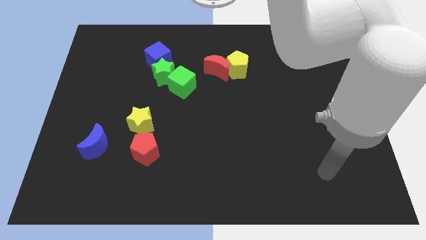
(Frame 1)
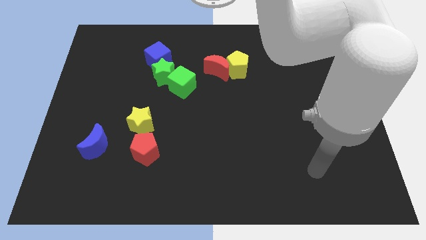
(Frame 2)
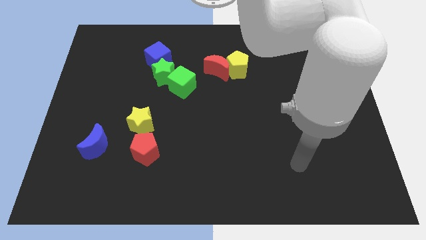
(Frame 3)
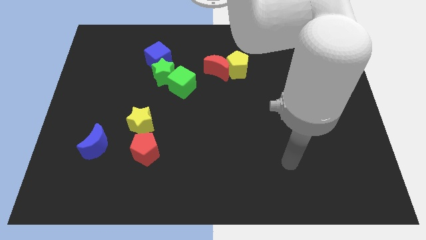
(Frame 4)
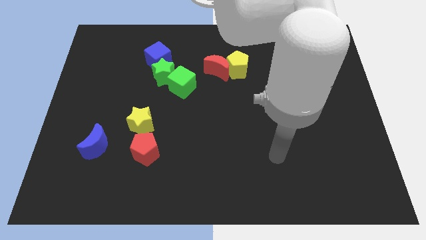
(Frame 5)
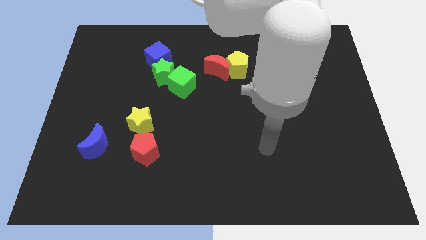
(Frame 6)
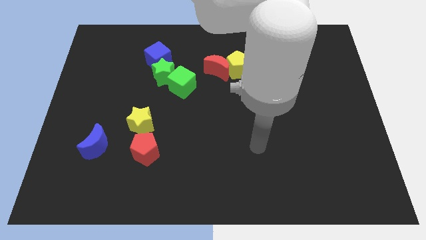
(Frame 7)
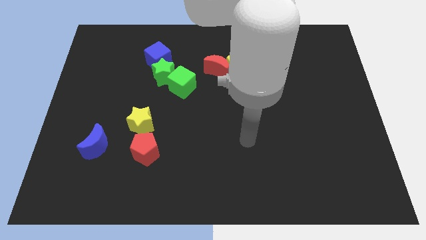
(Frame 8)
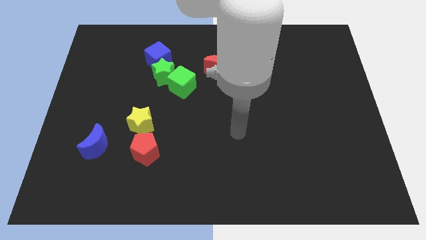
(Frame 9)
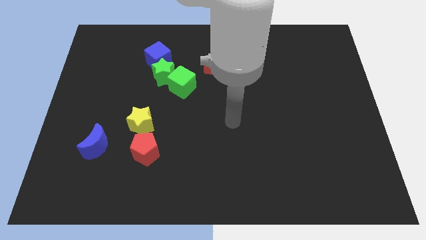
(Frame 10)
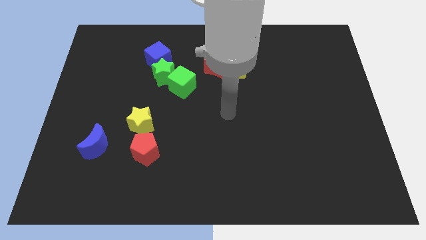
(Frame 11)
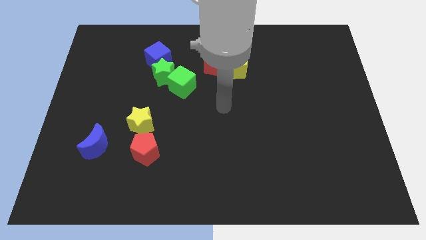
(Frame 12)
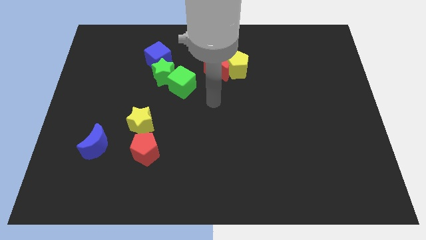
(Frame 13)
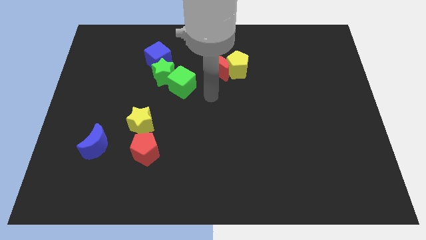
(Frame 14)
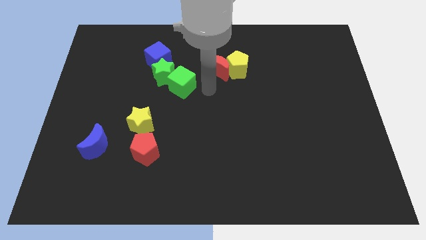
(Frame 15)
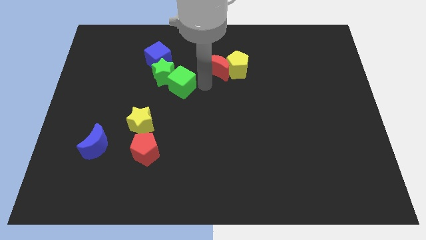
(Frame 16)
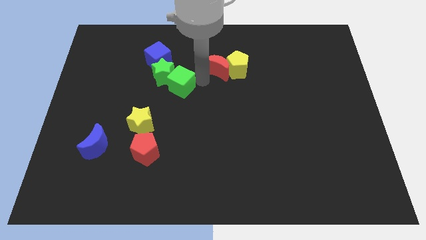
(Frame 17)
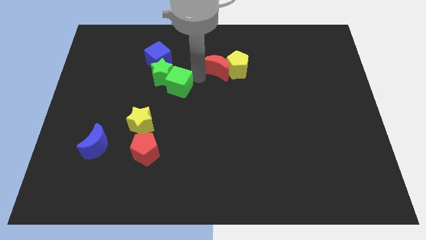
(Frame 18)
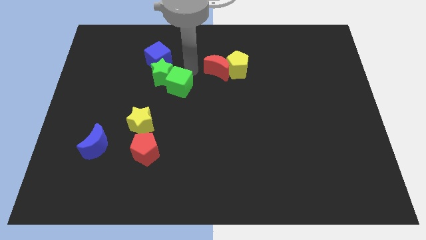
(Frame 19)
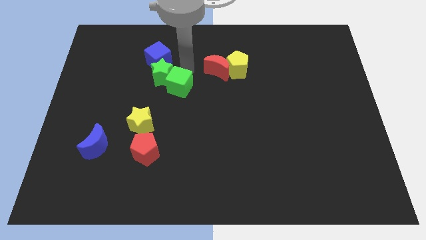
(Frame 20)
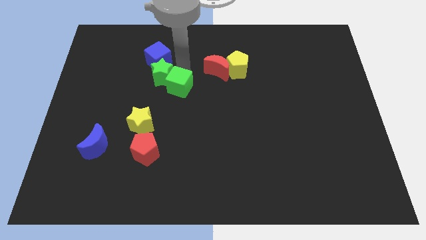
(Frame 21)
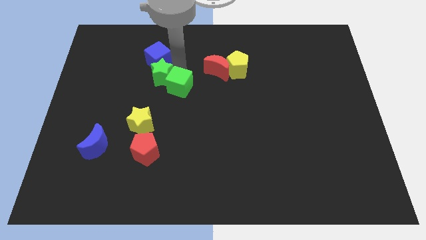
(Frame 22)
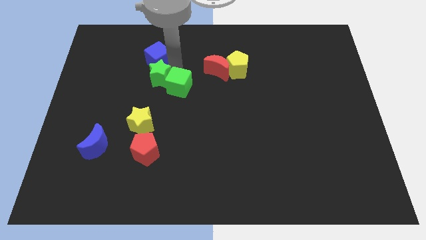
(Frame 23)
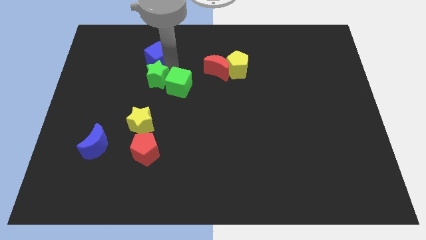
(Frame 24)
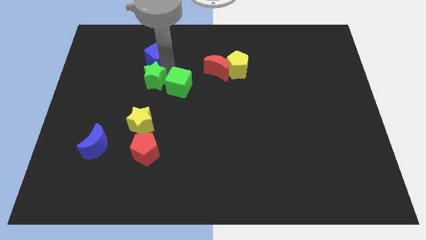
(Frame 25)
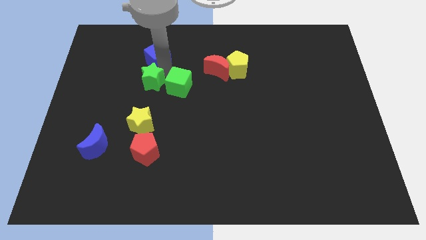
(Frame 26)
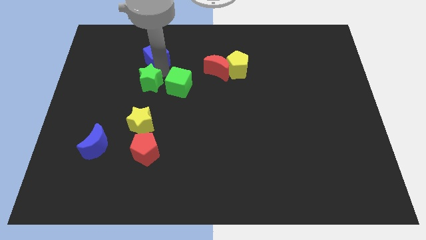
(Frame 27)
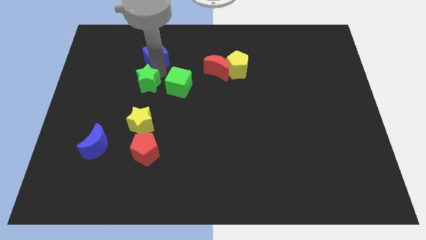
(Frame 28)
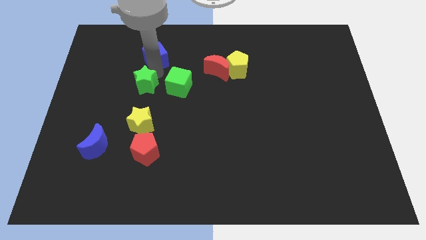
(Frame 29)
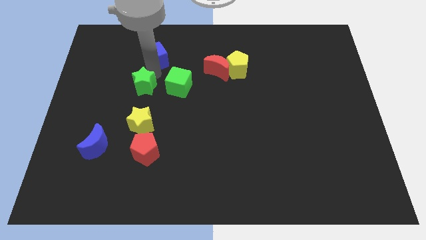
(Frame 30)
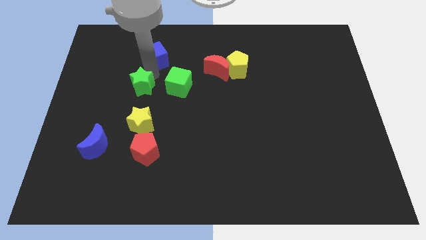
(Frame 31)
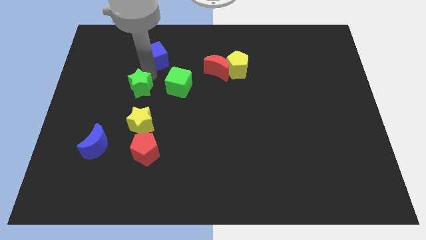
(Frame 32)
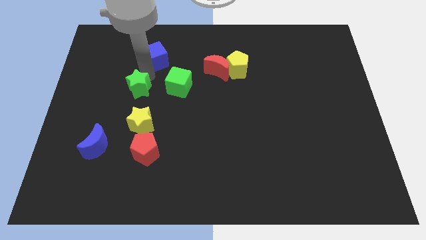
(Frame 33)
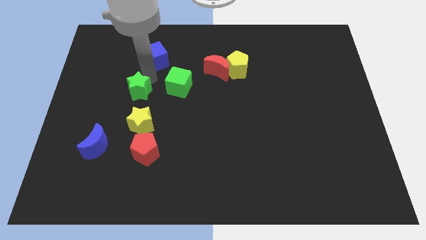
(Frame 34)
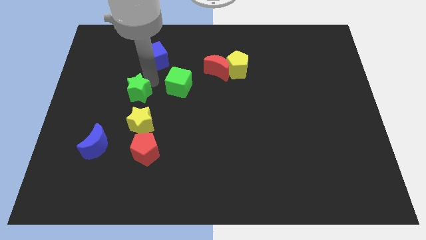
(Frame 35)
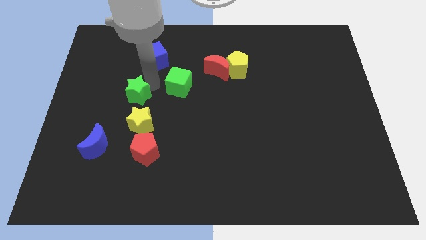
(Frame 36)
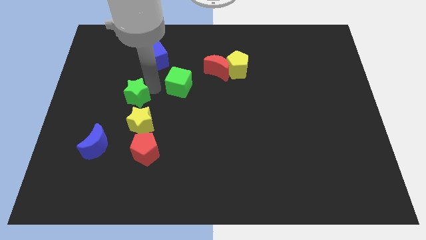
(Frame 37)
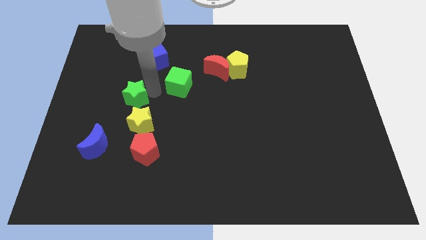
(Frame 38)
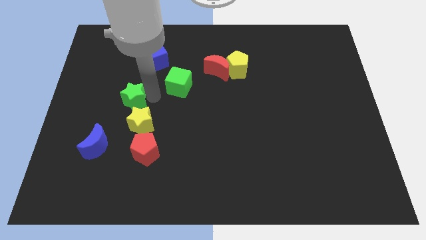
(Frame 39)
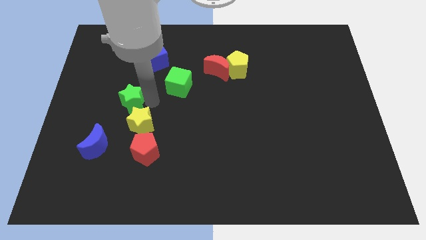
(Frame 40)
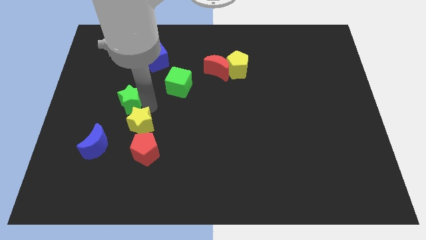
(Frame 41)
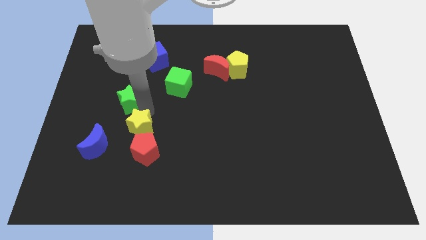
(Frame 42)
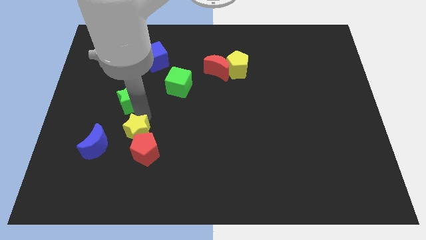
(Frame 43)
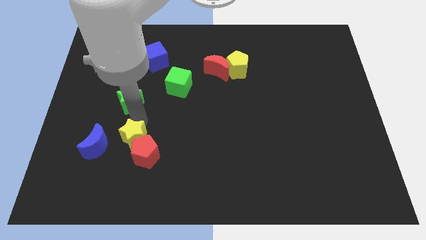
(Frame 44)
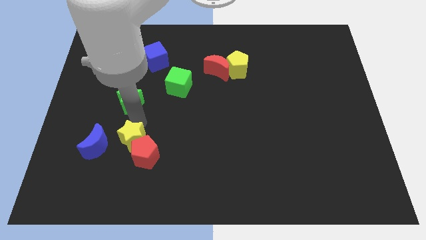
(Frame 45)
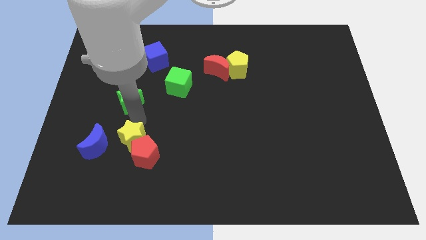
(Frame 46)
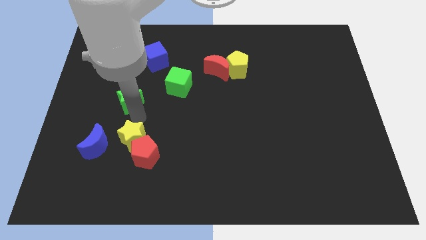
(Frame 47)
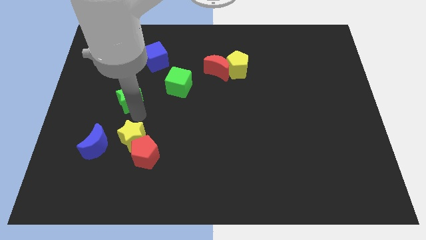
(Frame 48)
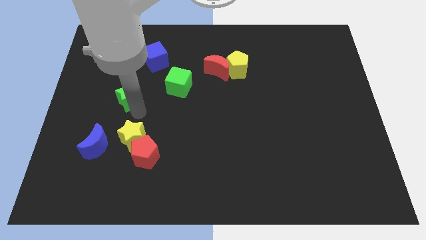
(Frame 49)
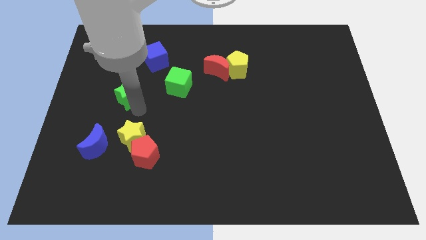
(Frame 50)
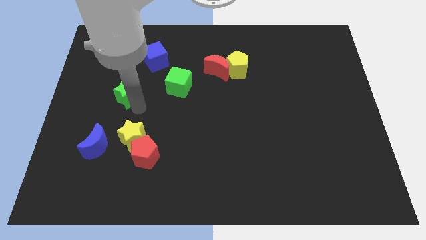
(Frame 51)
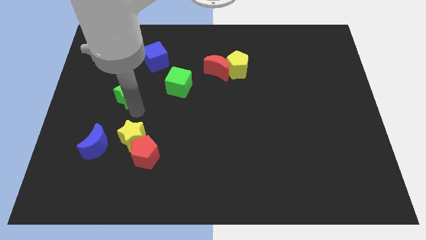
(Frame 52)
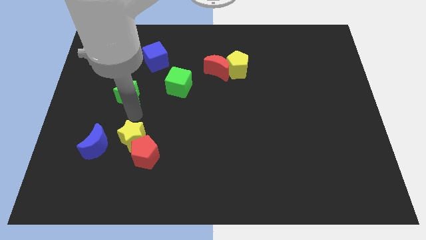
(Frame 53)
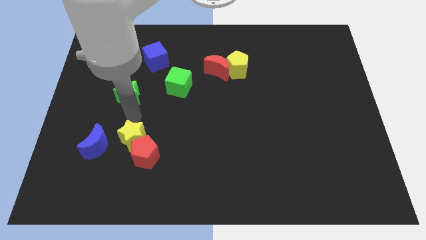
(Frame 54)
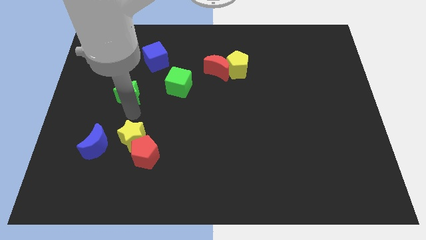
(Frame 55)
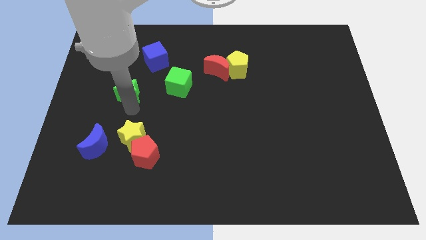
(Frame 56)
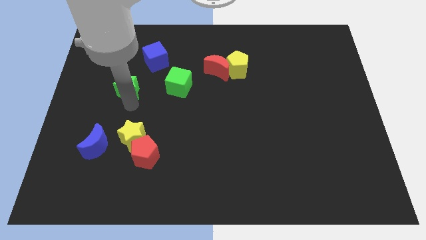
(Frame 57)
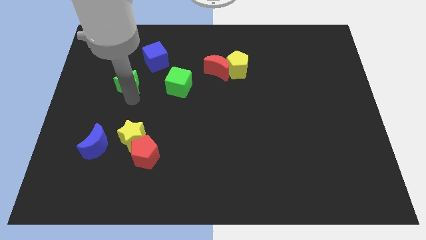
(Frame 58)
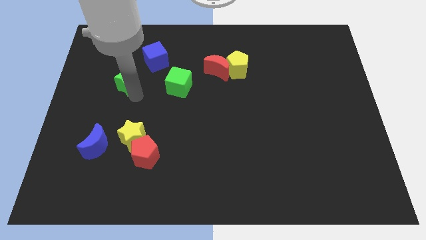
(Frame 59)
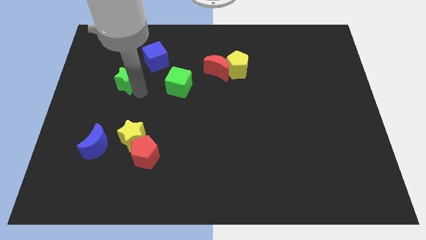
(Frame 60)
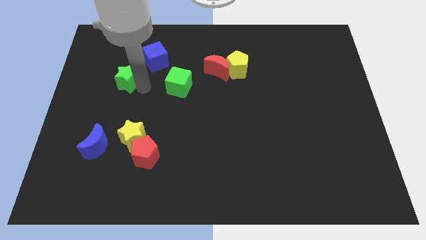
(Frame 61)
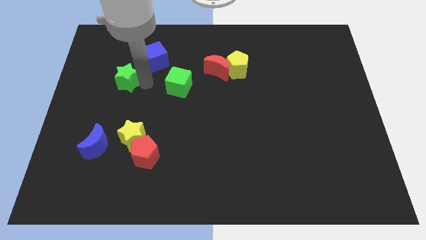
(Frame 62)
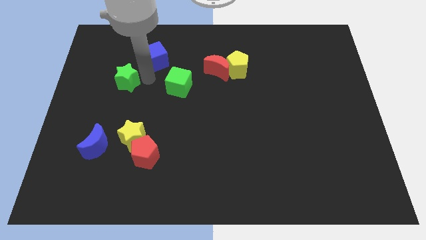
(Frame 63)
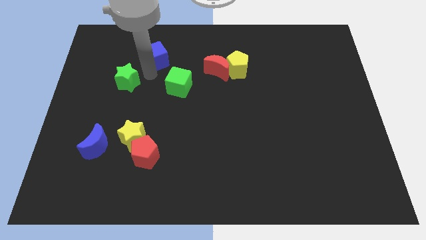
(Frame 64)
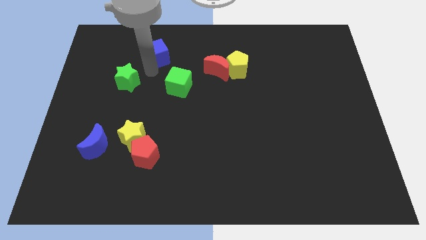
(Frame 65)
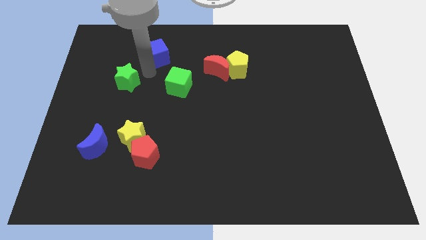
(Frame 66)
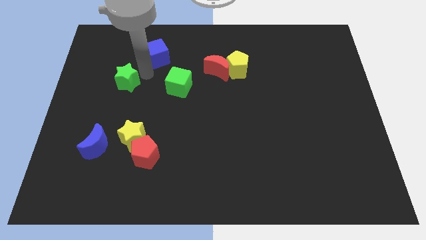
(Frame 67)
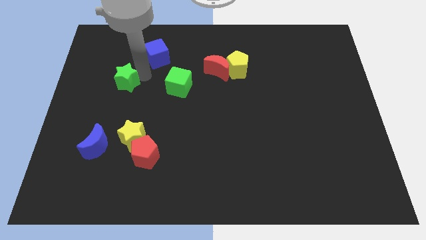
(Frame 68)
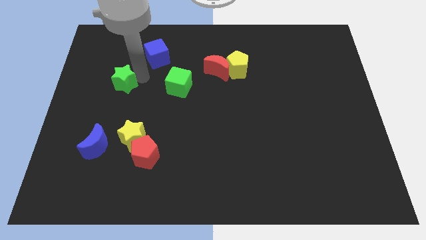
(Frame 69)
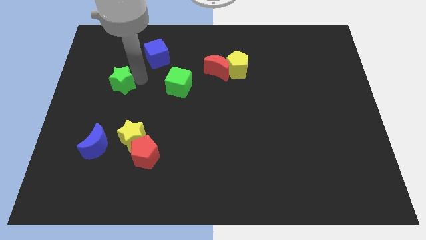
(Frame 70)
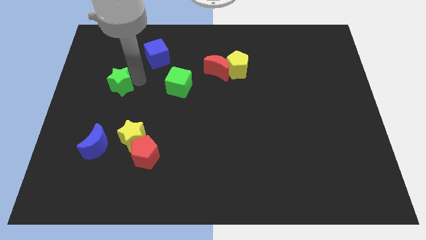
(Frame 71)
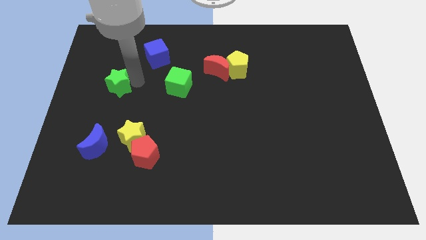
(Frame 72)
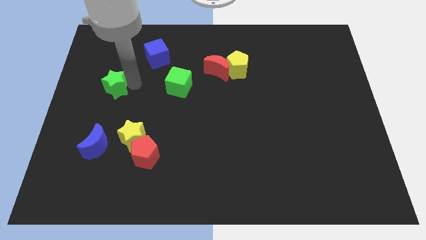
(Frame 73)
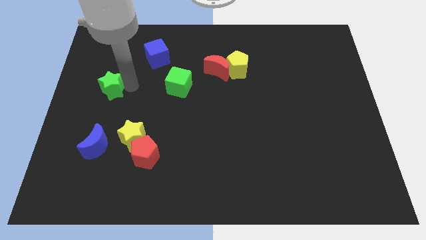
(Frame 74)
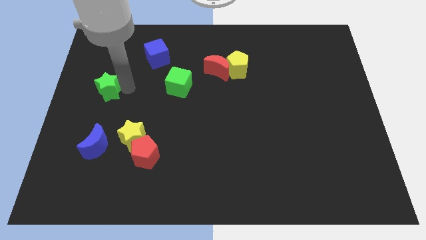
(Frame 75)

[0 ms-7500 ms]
push the green star to the left side of the board
